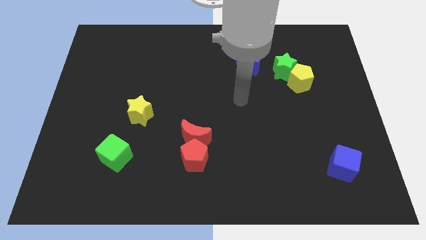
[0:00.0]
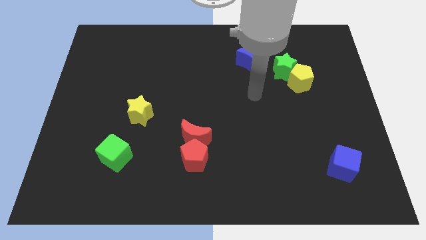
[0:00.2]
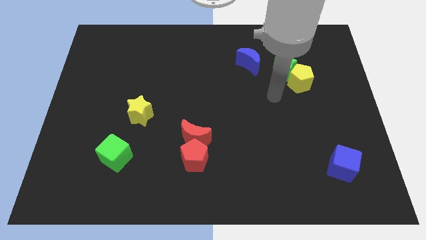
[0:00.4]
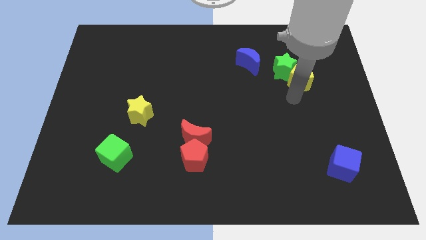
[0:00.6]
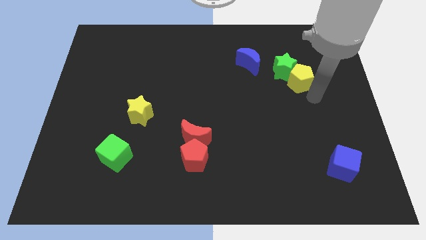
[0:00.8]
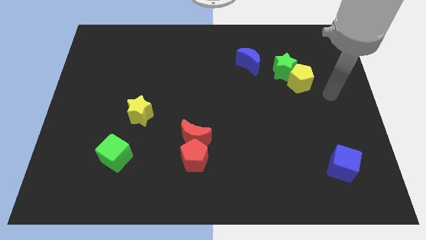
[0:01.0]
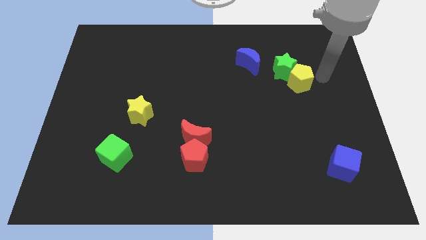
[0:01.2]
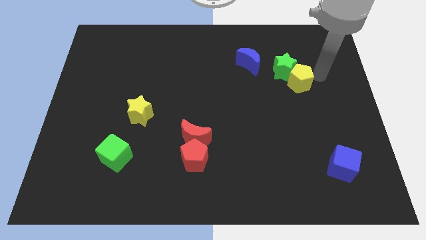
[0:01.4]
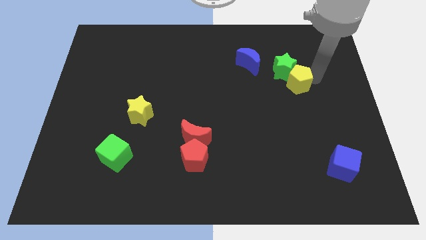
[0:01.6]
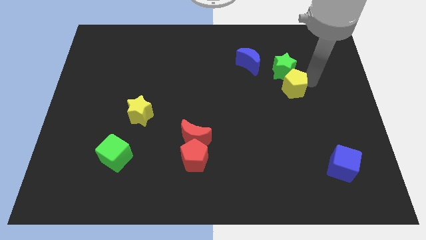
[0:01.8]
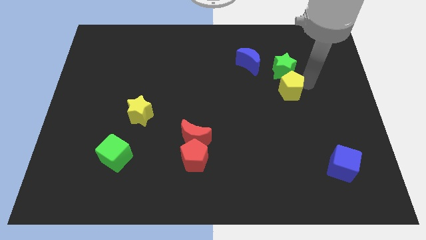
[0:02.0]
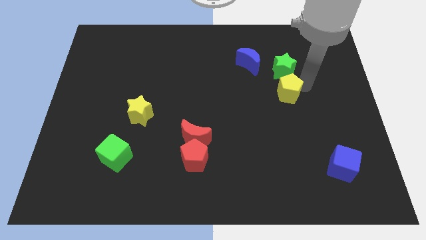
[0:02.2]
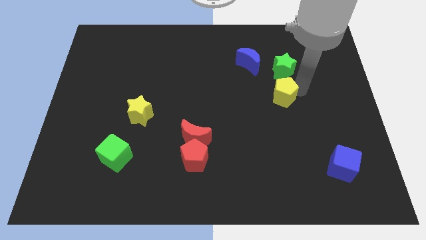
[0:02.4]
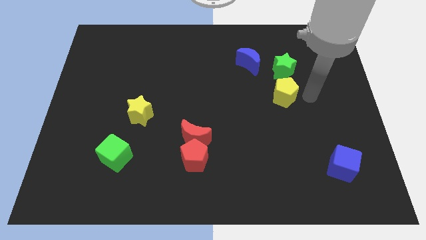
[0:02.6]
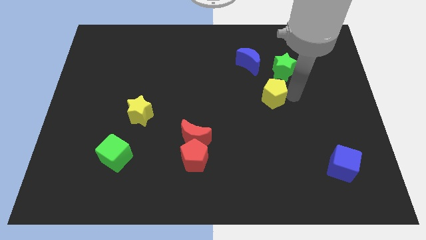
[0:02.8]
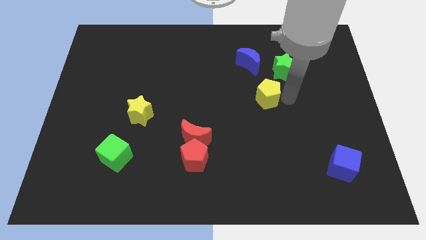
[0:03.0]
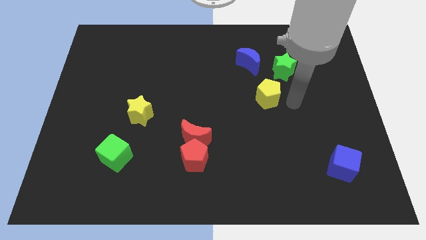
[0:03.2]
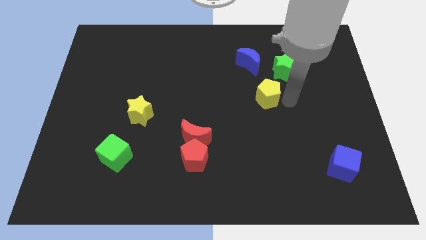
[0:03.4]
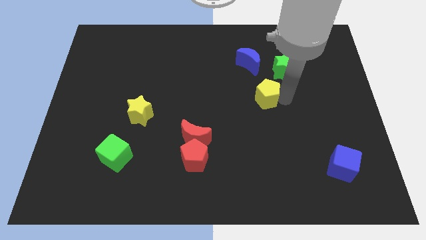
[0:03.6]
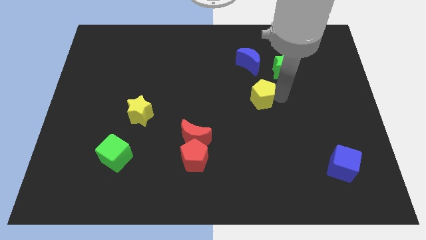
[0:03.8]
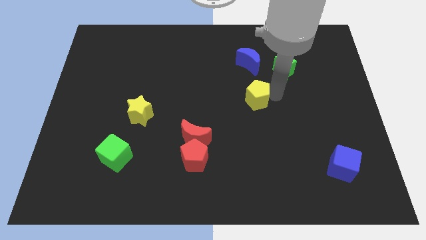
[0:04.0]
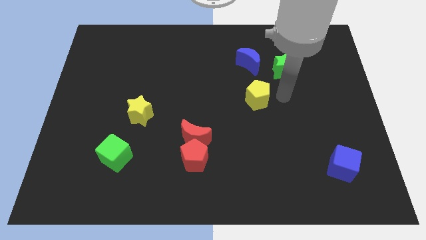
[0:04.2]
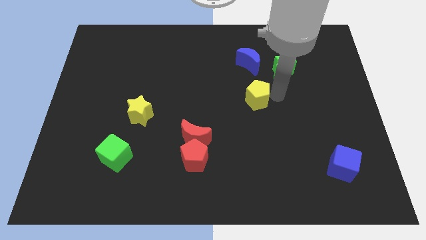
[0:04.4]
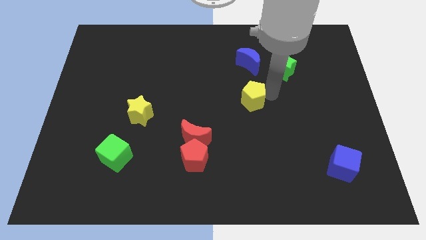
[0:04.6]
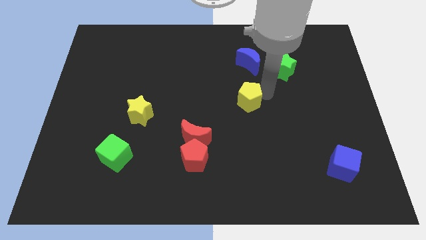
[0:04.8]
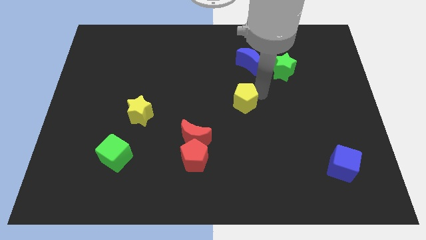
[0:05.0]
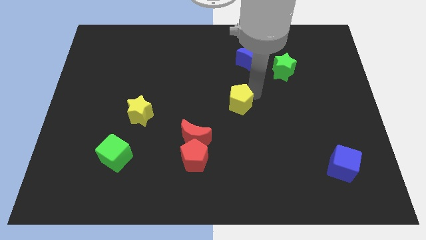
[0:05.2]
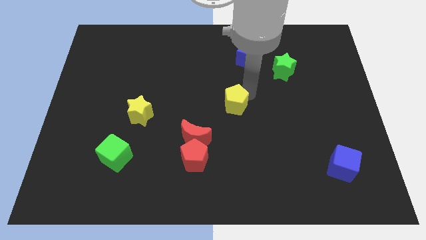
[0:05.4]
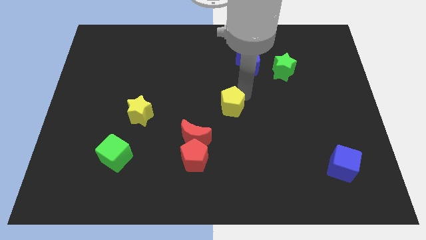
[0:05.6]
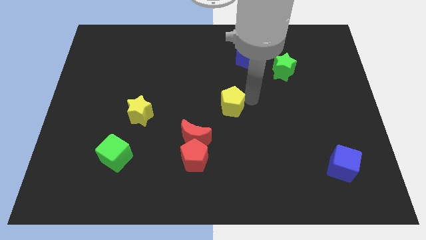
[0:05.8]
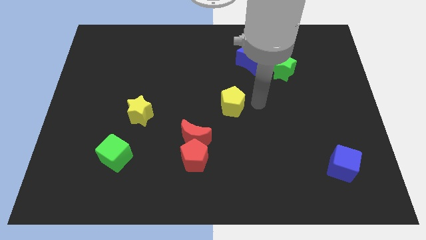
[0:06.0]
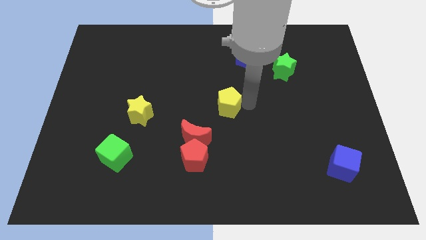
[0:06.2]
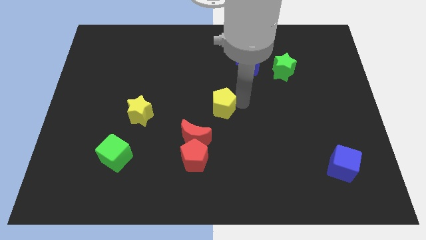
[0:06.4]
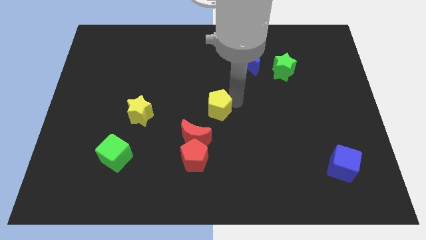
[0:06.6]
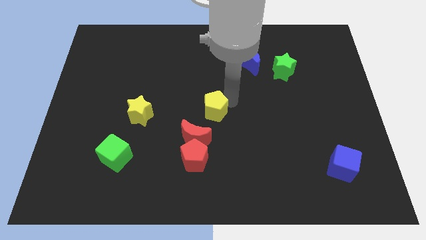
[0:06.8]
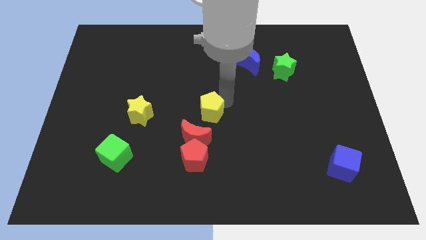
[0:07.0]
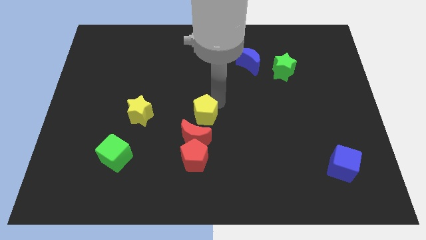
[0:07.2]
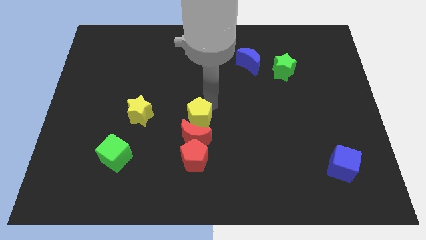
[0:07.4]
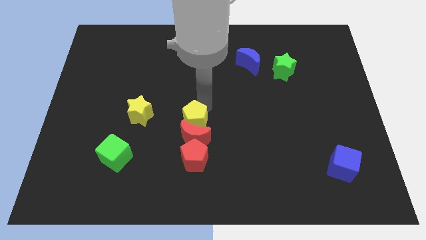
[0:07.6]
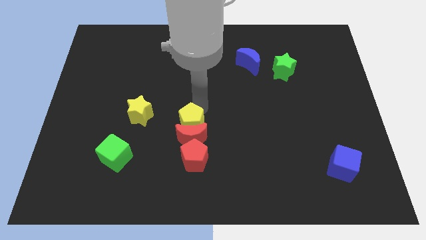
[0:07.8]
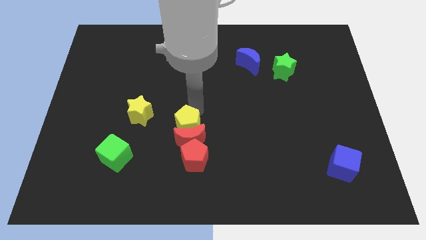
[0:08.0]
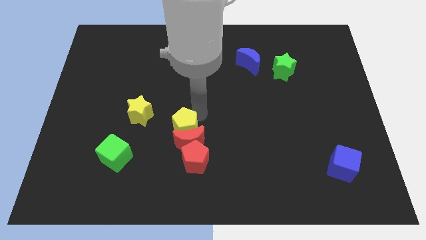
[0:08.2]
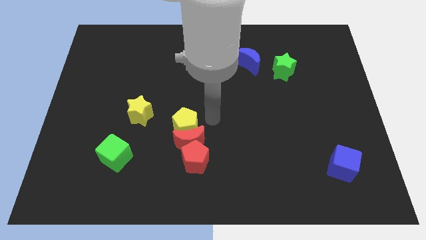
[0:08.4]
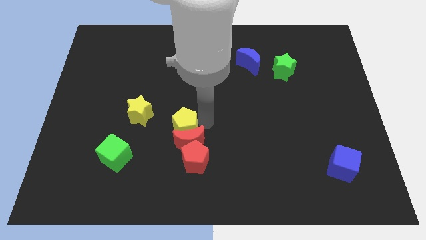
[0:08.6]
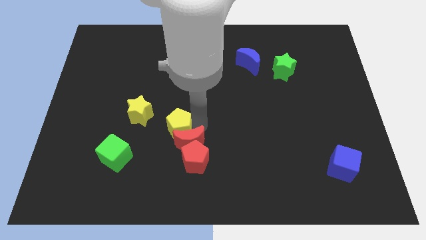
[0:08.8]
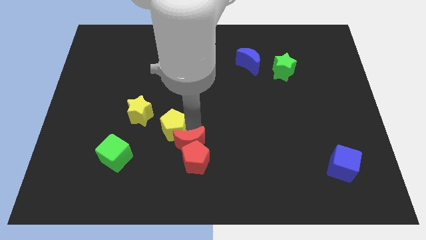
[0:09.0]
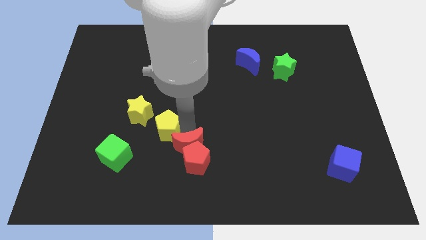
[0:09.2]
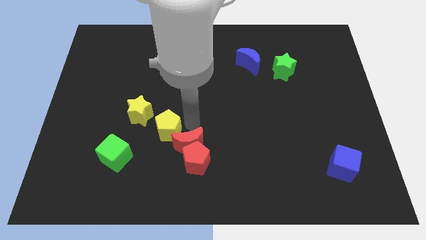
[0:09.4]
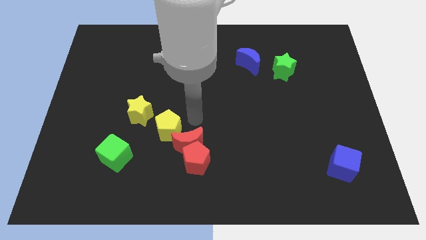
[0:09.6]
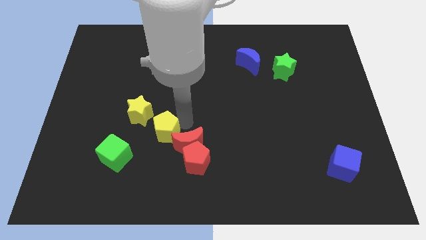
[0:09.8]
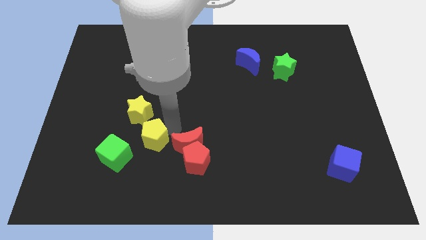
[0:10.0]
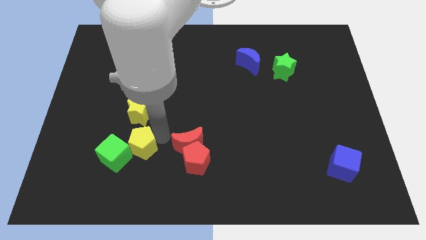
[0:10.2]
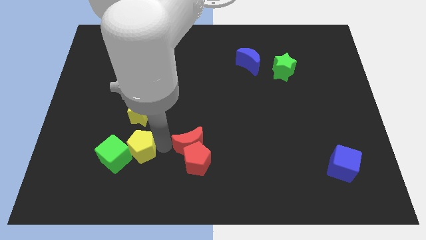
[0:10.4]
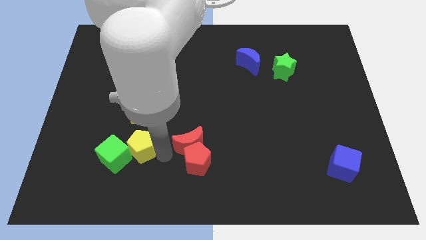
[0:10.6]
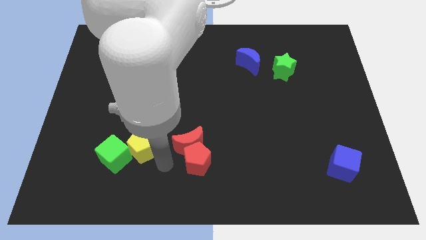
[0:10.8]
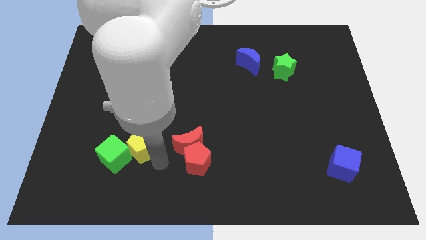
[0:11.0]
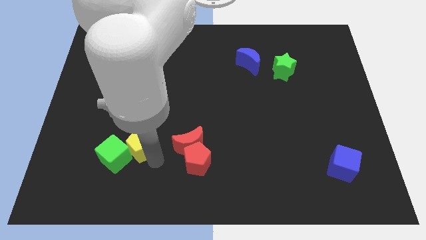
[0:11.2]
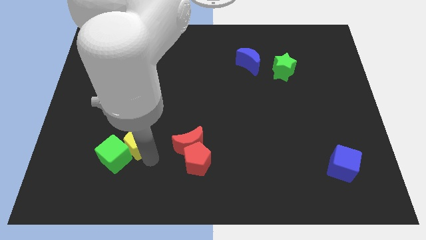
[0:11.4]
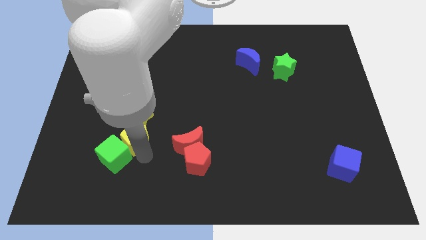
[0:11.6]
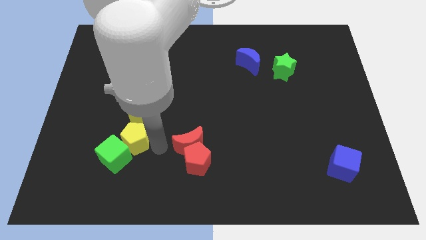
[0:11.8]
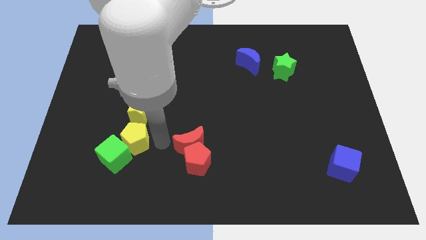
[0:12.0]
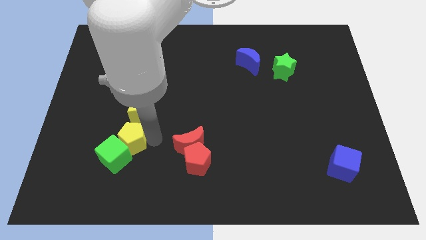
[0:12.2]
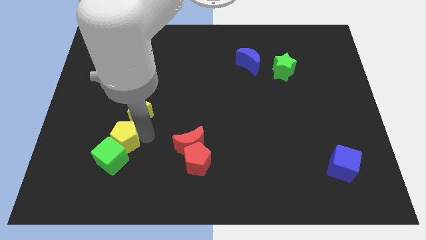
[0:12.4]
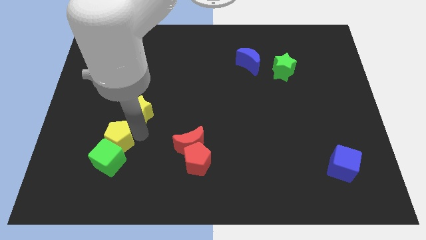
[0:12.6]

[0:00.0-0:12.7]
push the yellow pentagon diagonally up and to the left of the green cube
